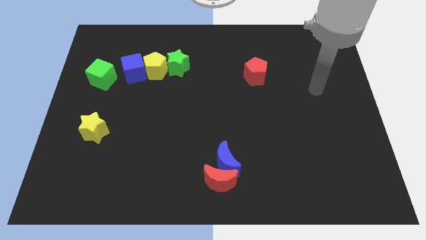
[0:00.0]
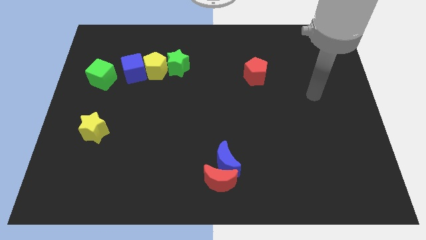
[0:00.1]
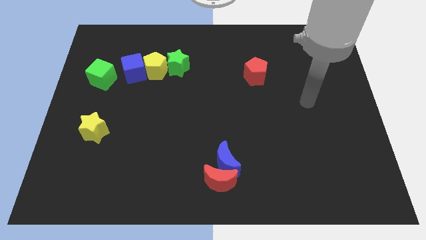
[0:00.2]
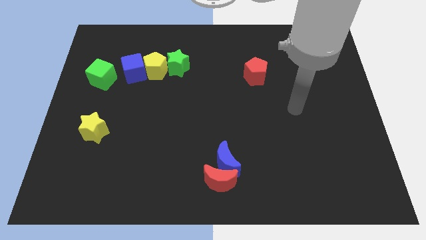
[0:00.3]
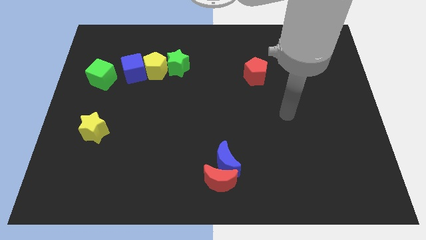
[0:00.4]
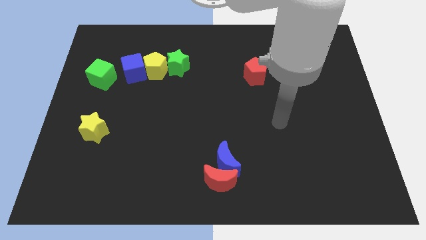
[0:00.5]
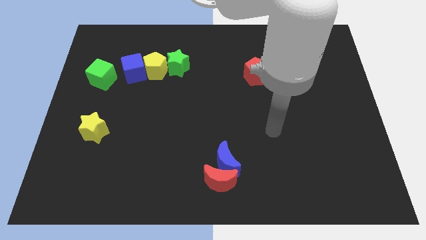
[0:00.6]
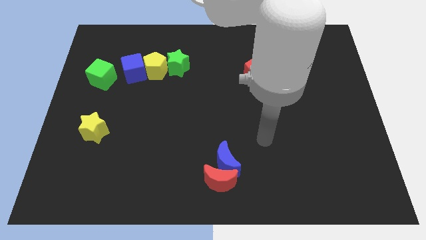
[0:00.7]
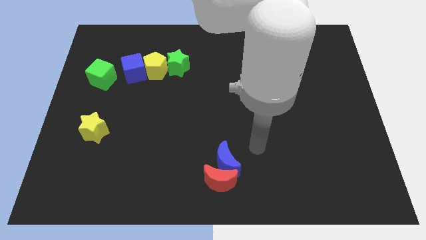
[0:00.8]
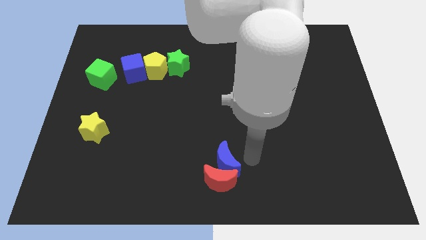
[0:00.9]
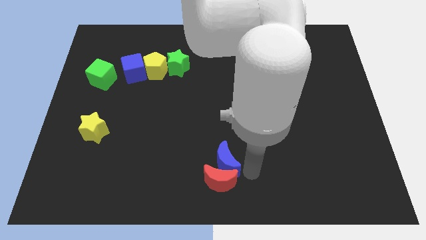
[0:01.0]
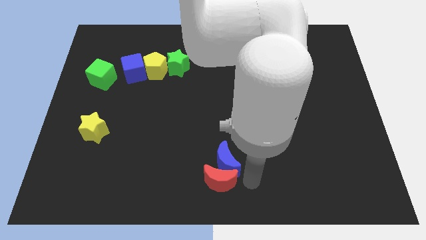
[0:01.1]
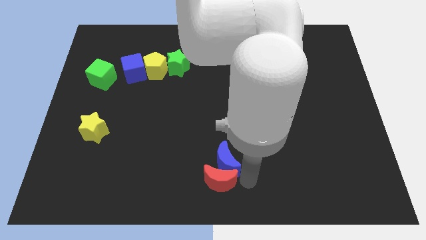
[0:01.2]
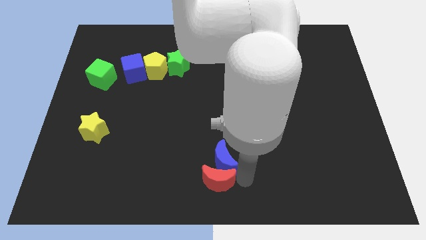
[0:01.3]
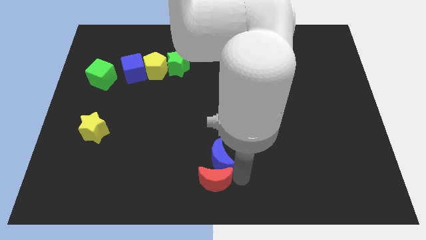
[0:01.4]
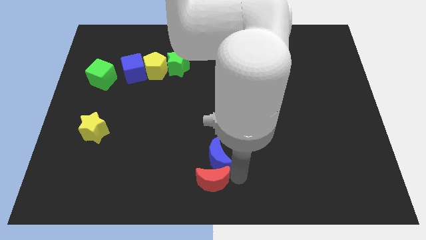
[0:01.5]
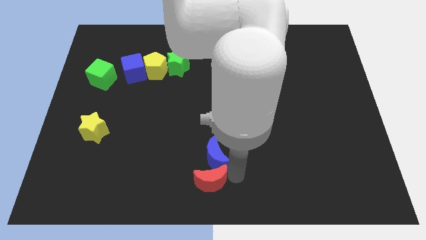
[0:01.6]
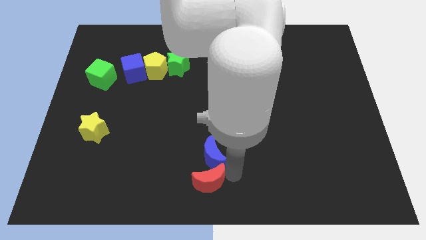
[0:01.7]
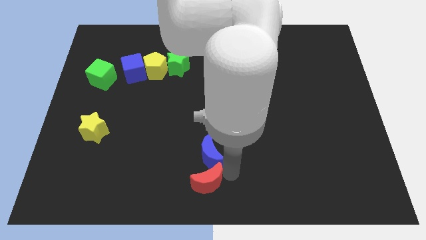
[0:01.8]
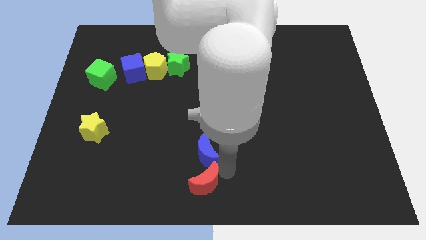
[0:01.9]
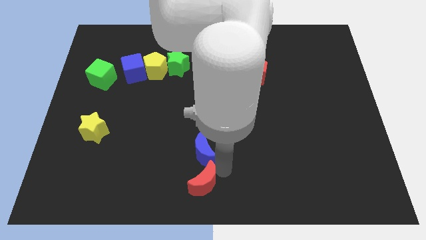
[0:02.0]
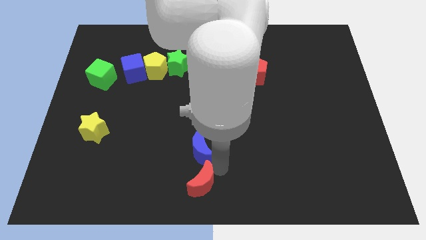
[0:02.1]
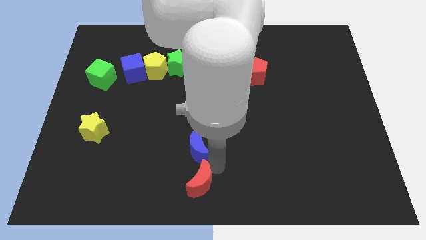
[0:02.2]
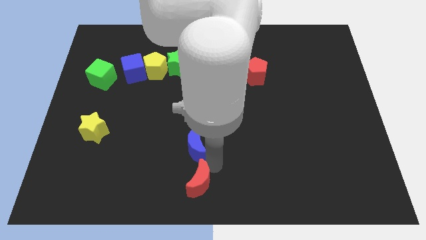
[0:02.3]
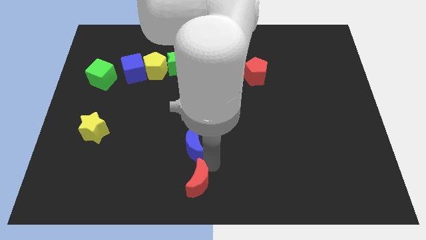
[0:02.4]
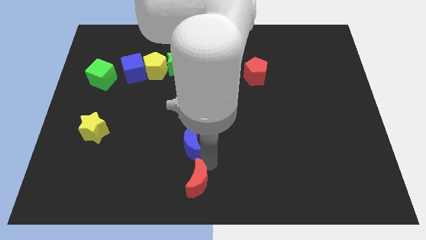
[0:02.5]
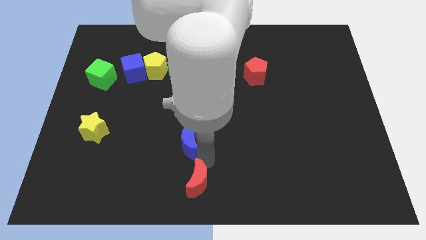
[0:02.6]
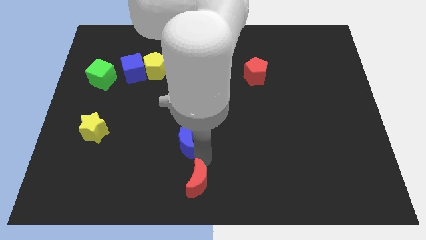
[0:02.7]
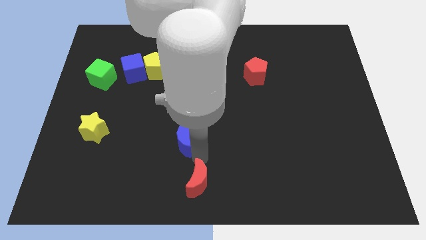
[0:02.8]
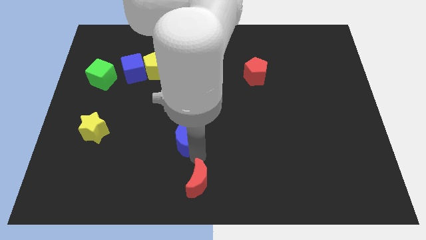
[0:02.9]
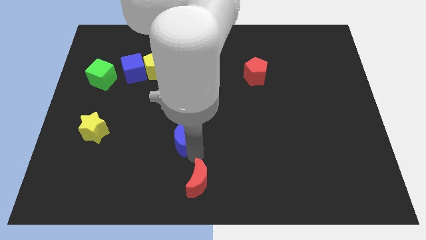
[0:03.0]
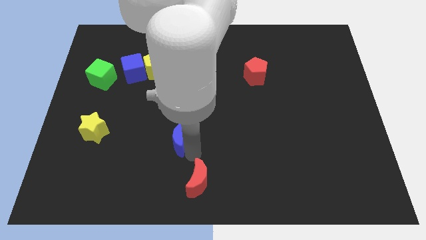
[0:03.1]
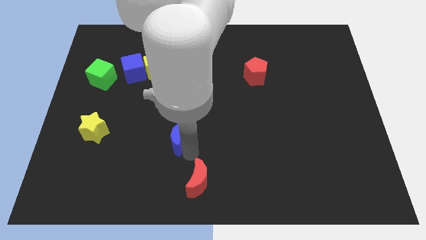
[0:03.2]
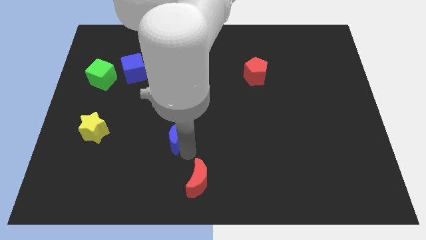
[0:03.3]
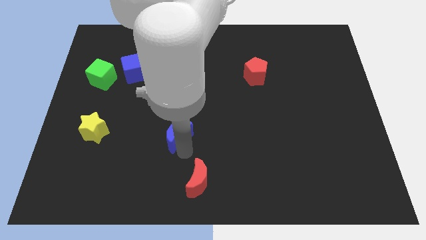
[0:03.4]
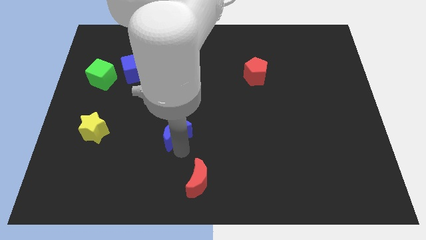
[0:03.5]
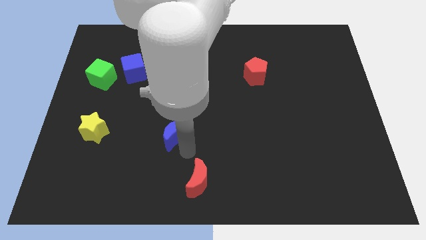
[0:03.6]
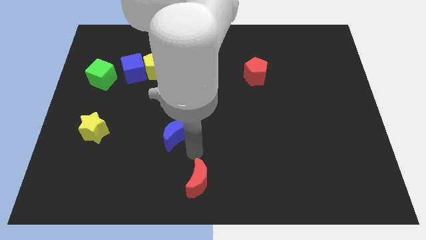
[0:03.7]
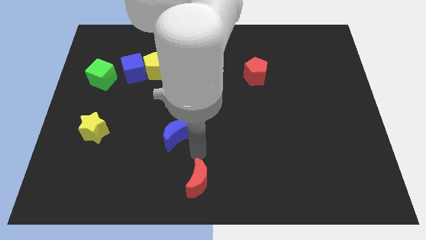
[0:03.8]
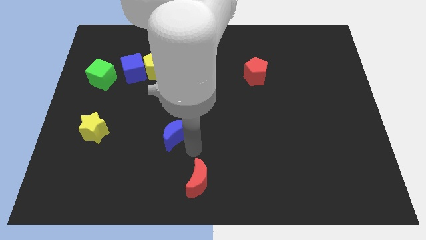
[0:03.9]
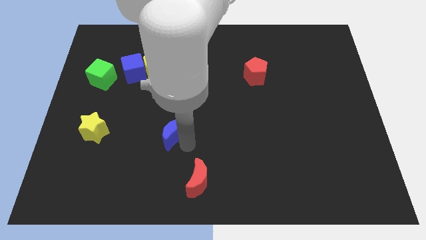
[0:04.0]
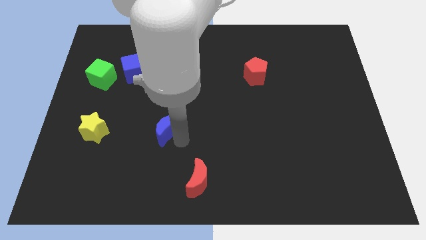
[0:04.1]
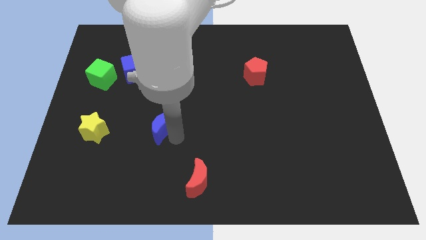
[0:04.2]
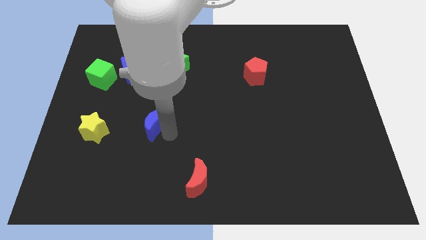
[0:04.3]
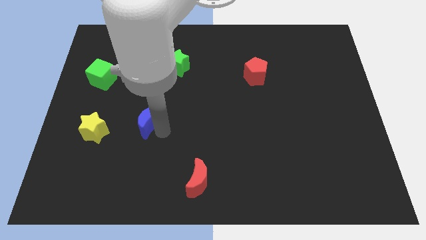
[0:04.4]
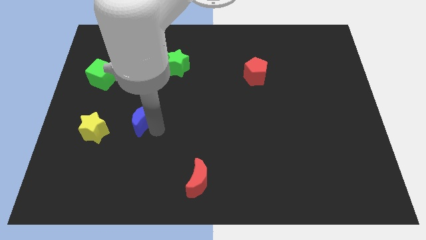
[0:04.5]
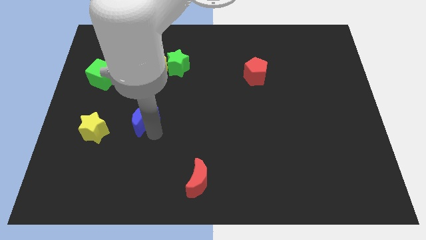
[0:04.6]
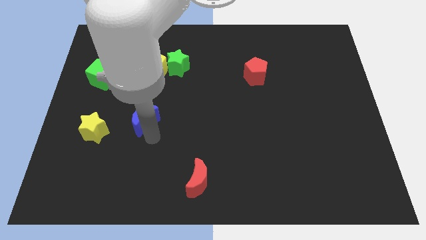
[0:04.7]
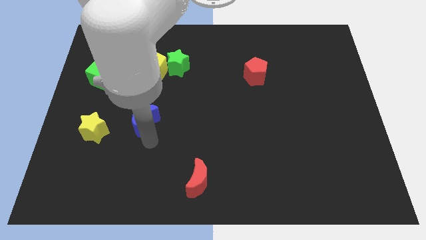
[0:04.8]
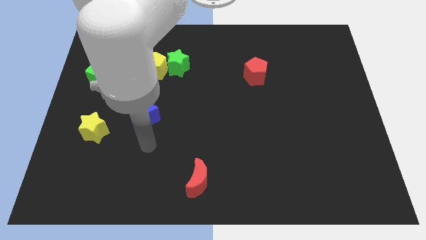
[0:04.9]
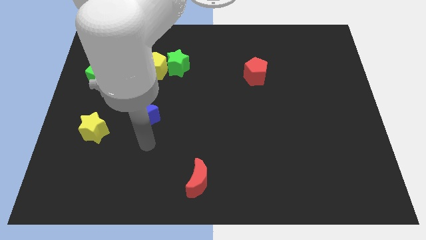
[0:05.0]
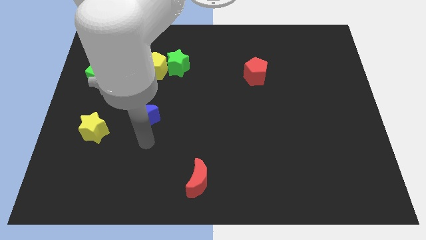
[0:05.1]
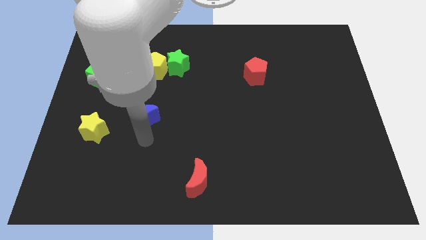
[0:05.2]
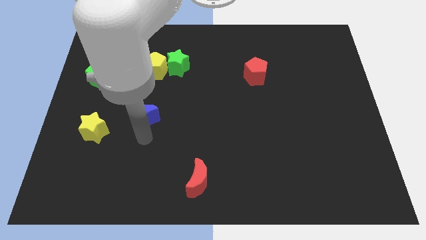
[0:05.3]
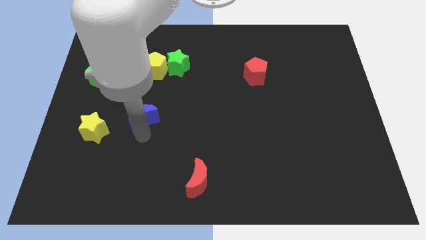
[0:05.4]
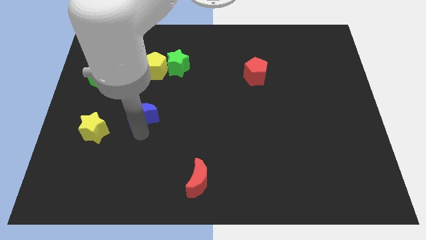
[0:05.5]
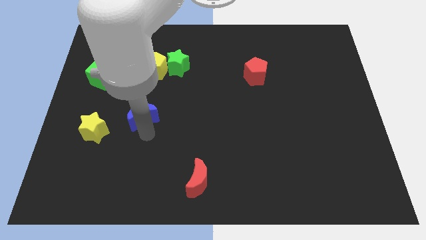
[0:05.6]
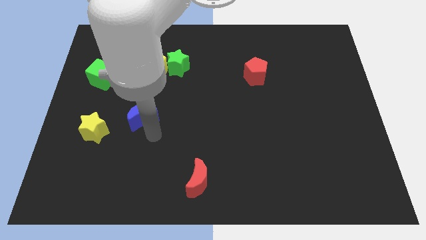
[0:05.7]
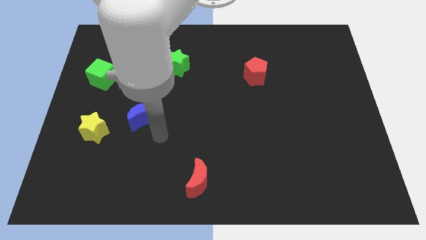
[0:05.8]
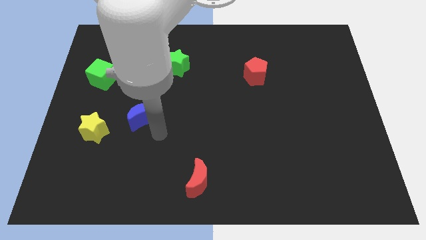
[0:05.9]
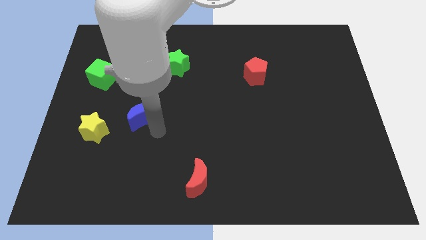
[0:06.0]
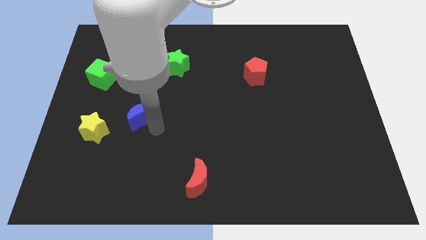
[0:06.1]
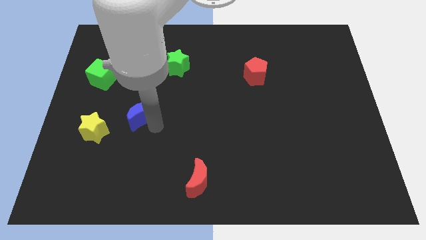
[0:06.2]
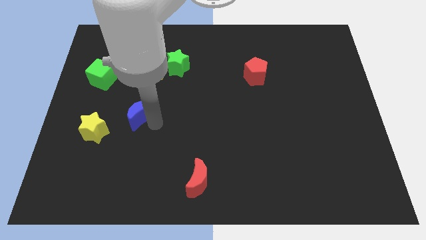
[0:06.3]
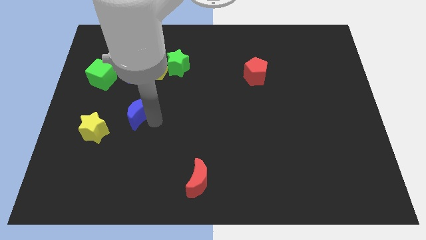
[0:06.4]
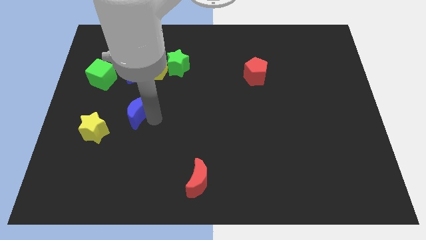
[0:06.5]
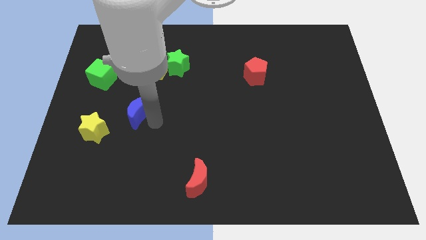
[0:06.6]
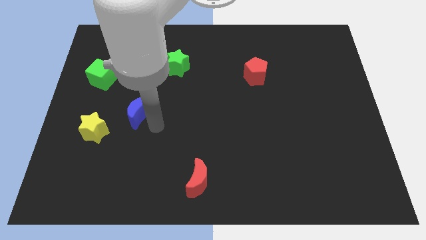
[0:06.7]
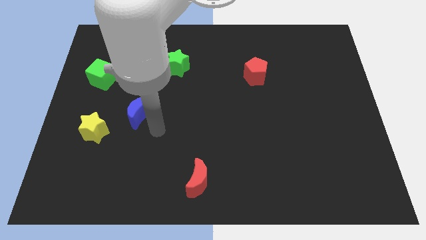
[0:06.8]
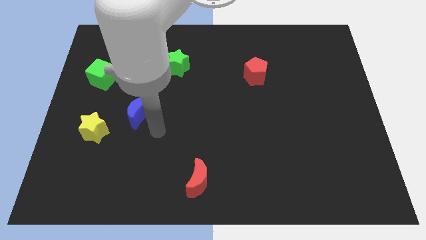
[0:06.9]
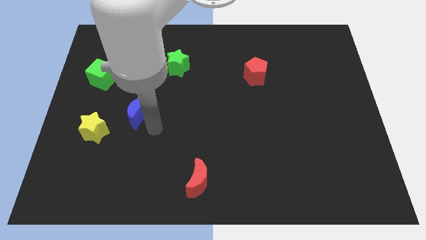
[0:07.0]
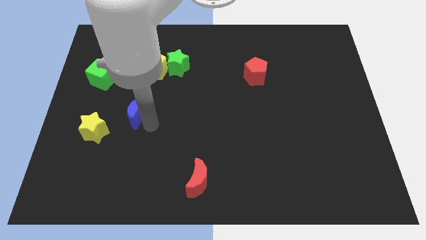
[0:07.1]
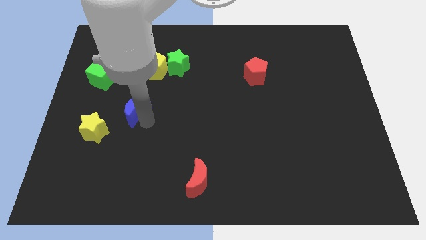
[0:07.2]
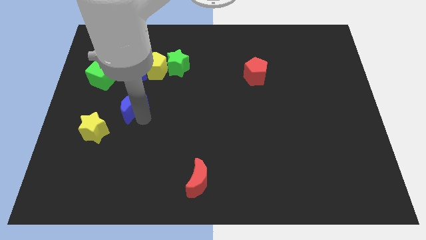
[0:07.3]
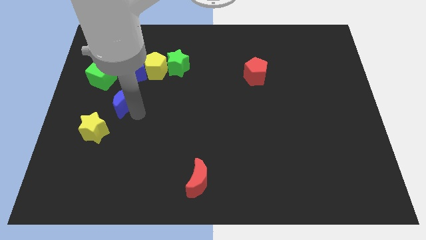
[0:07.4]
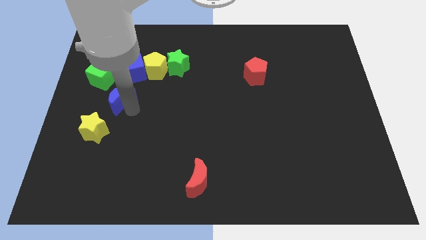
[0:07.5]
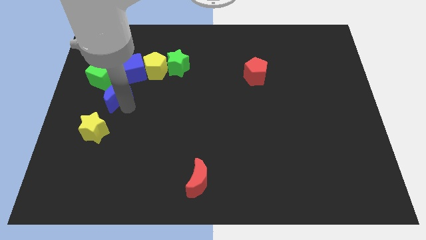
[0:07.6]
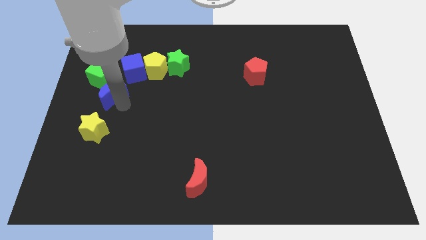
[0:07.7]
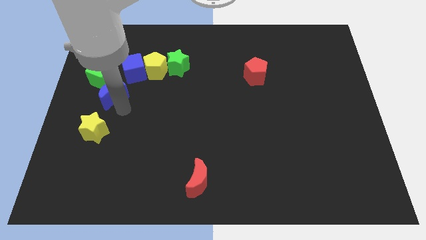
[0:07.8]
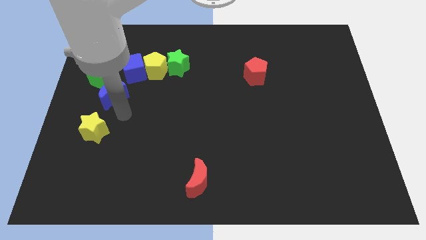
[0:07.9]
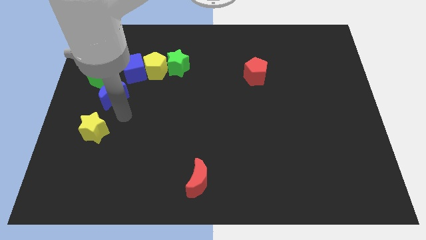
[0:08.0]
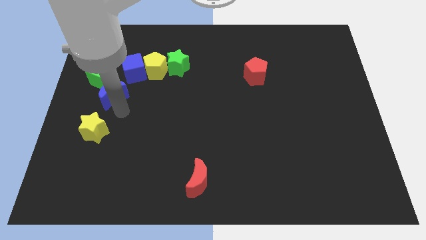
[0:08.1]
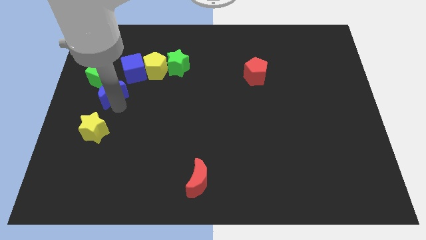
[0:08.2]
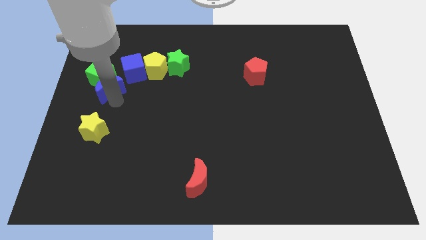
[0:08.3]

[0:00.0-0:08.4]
put the blue moon towards the green cube
